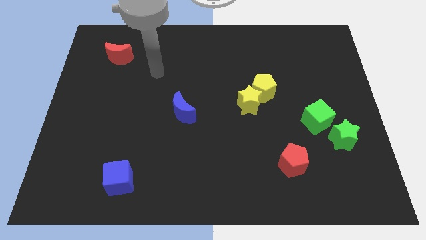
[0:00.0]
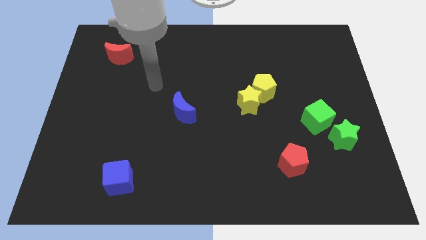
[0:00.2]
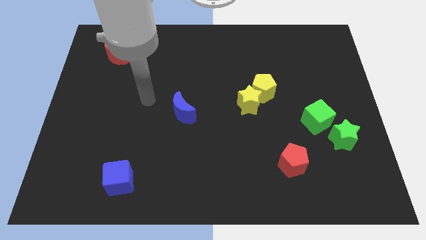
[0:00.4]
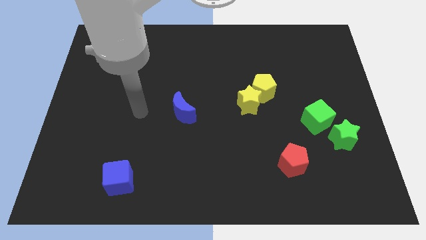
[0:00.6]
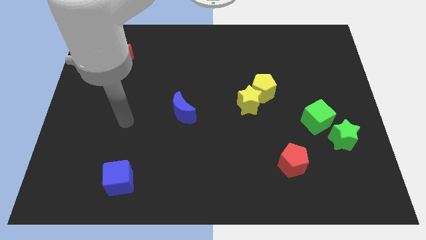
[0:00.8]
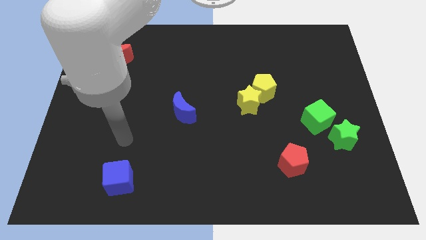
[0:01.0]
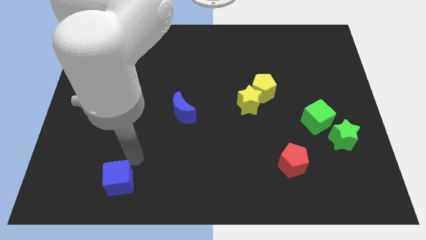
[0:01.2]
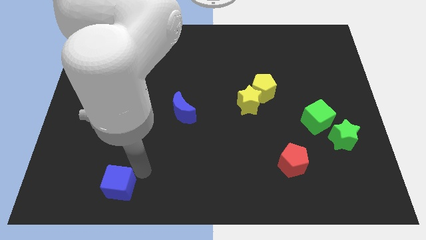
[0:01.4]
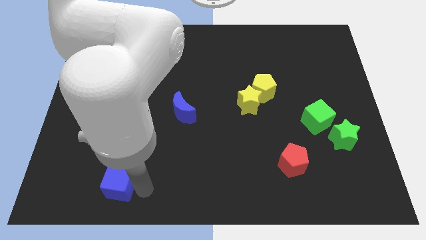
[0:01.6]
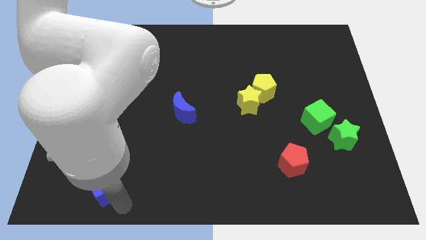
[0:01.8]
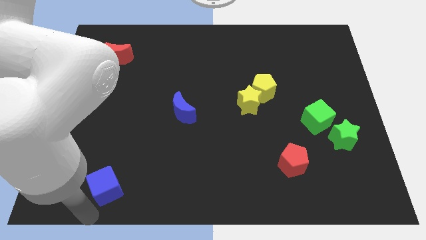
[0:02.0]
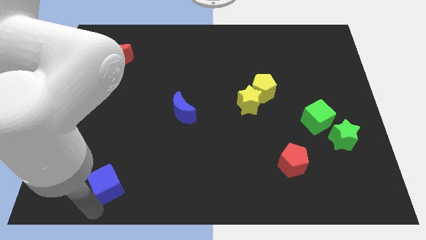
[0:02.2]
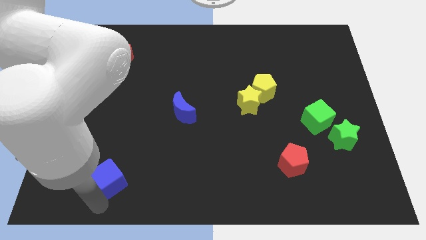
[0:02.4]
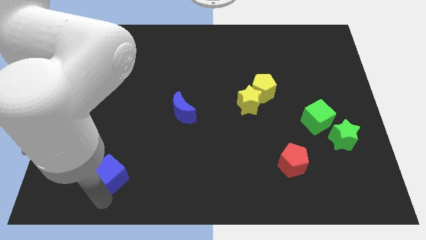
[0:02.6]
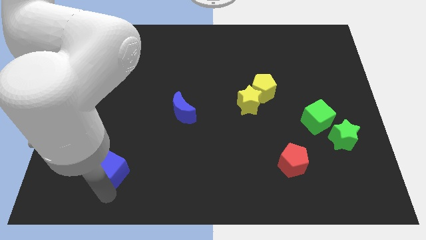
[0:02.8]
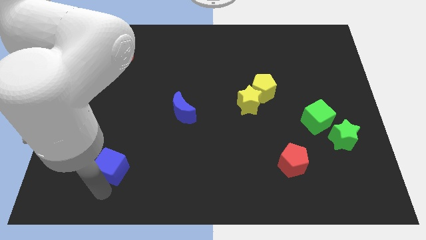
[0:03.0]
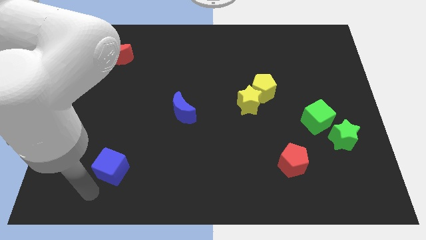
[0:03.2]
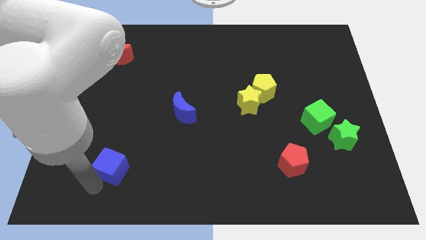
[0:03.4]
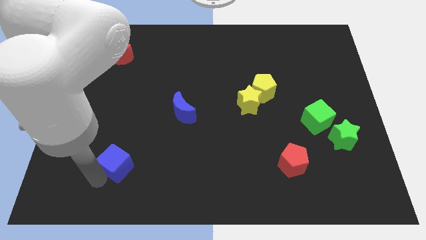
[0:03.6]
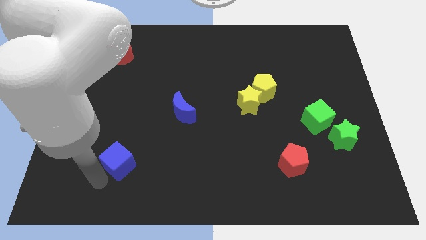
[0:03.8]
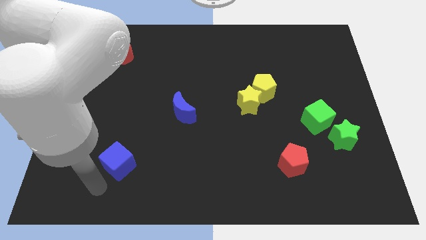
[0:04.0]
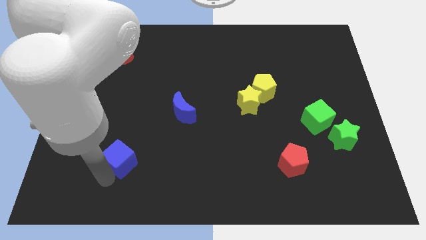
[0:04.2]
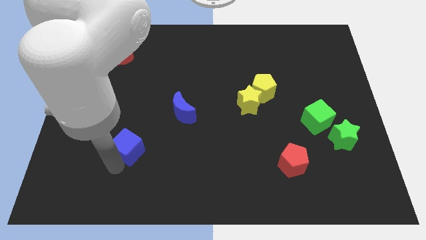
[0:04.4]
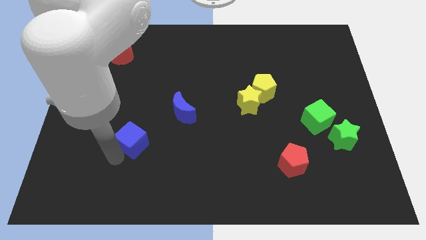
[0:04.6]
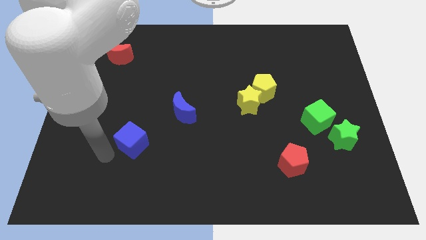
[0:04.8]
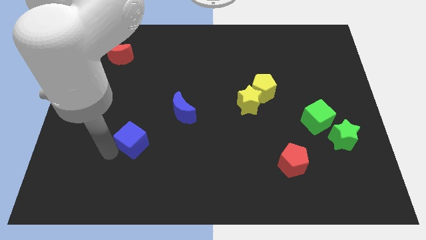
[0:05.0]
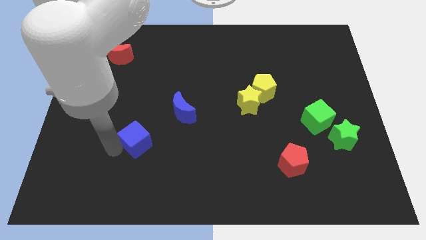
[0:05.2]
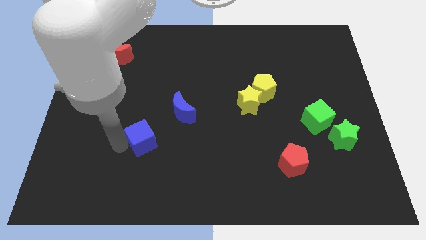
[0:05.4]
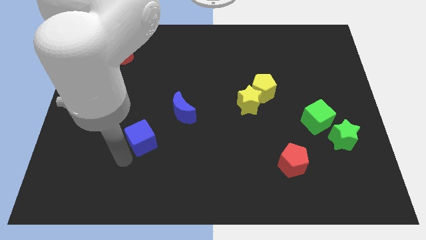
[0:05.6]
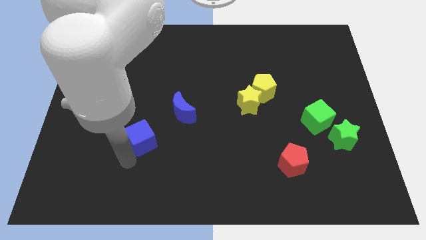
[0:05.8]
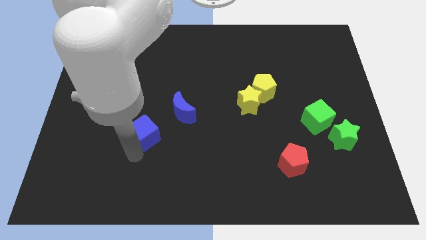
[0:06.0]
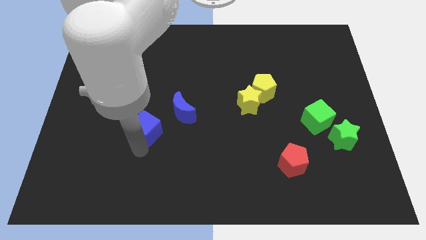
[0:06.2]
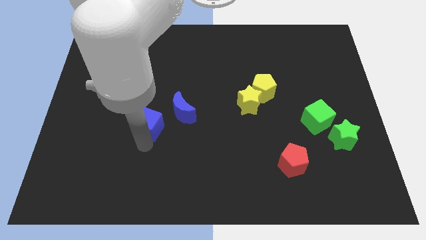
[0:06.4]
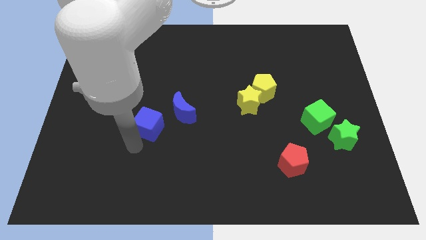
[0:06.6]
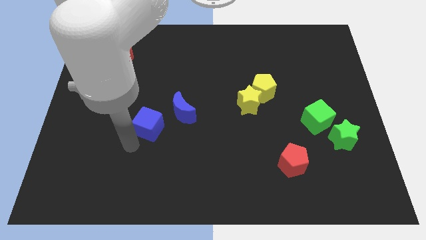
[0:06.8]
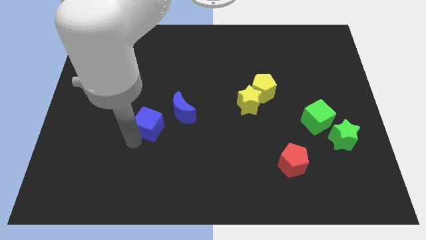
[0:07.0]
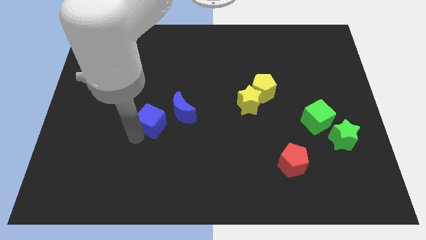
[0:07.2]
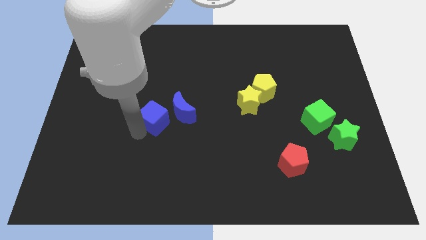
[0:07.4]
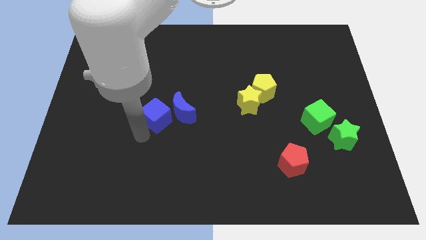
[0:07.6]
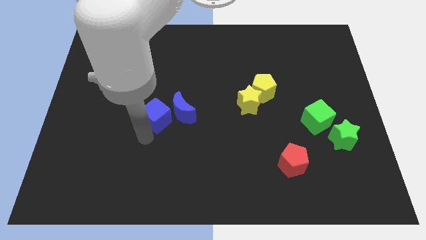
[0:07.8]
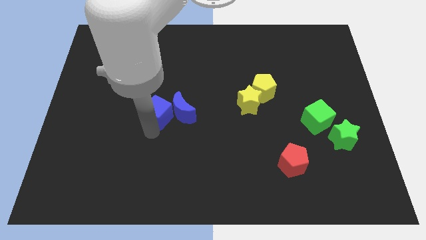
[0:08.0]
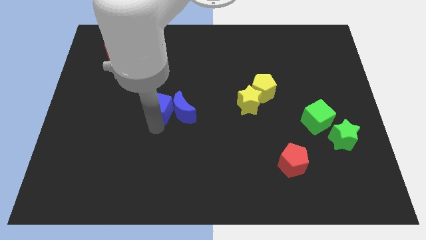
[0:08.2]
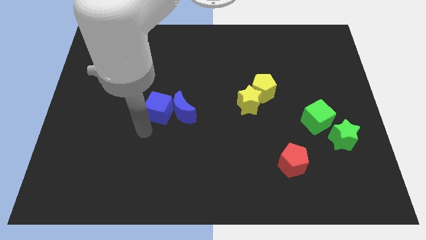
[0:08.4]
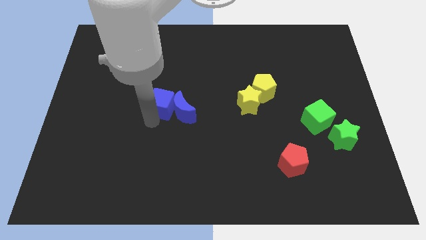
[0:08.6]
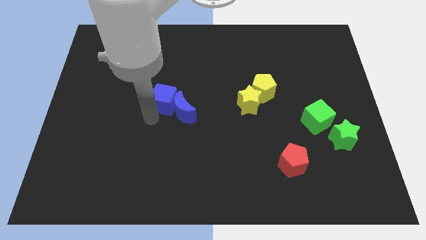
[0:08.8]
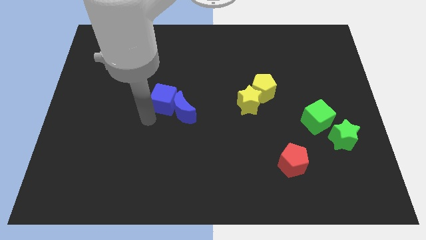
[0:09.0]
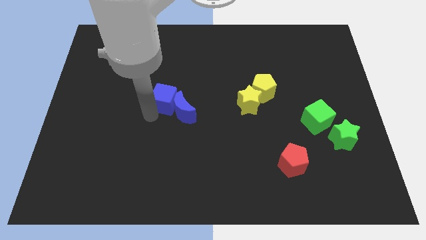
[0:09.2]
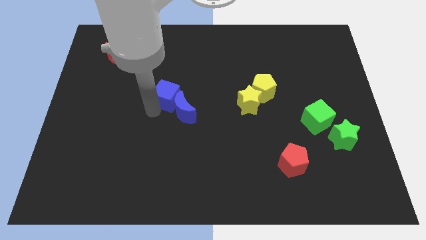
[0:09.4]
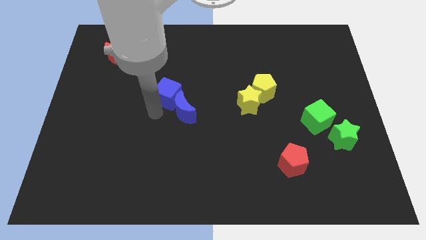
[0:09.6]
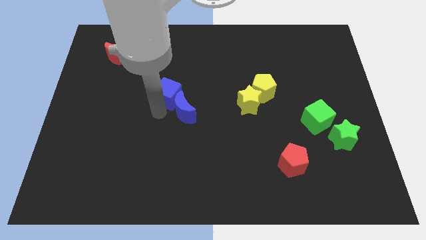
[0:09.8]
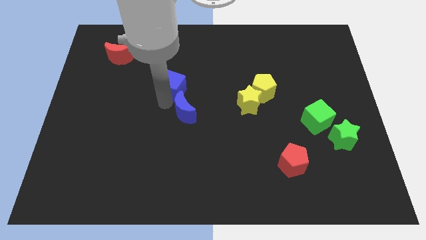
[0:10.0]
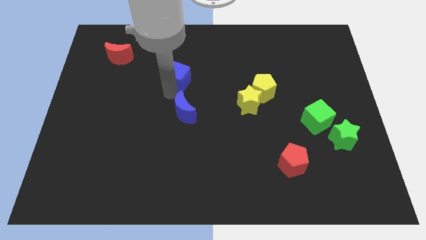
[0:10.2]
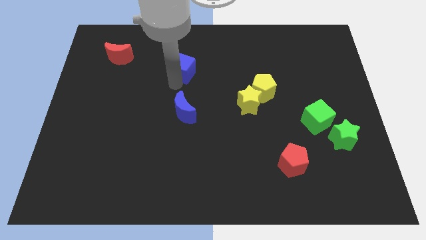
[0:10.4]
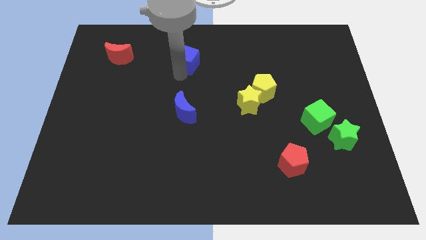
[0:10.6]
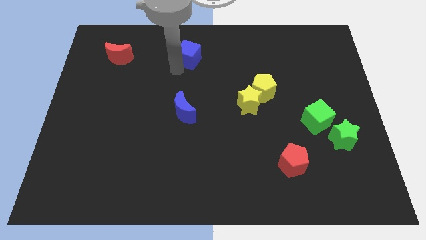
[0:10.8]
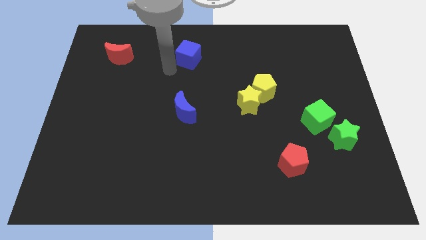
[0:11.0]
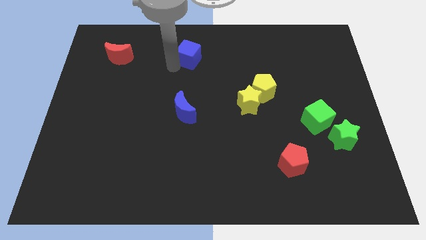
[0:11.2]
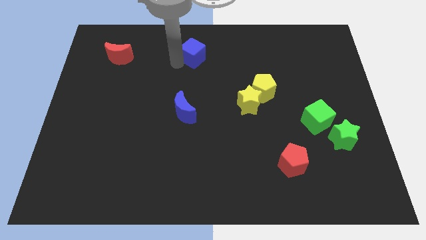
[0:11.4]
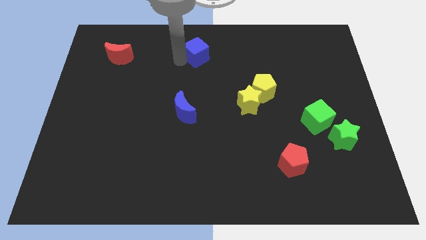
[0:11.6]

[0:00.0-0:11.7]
push the blue cube to the top side
